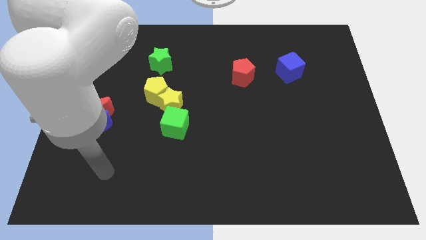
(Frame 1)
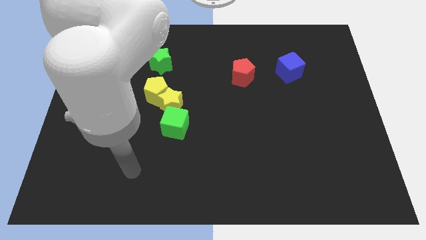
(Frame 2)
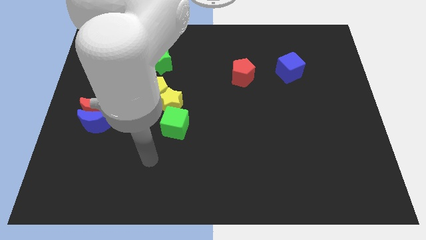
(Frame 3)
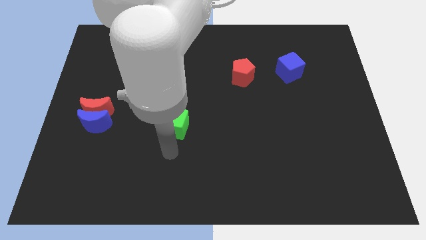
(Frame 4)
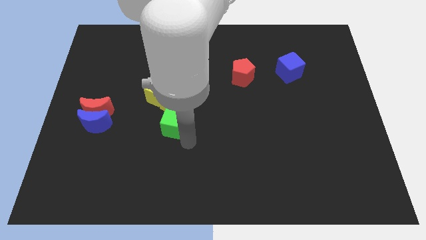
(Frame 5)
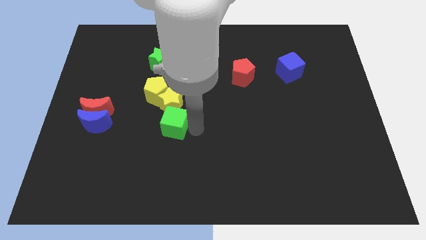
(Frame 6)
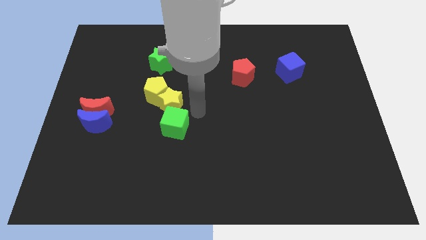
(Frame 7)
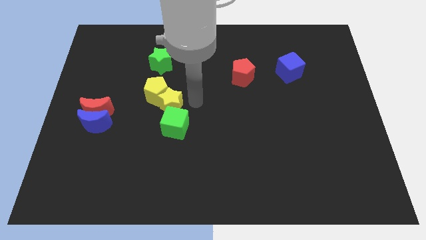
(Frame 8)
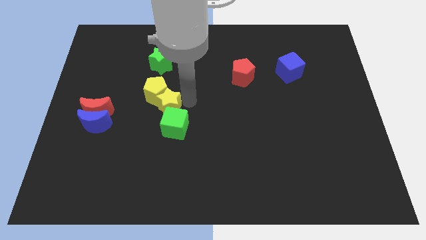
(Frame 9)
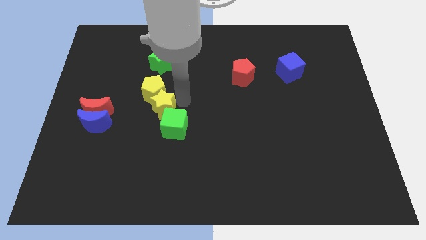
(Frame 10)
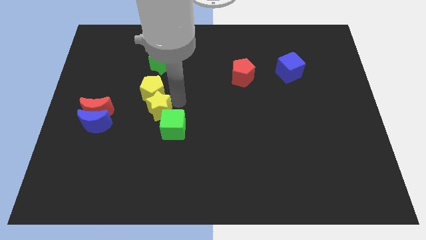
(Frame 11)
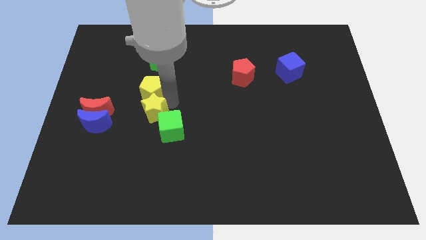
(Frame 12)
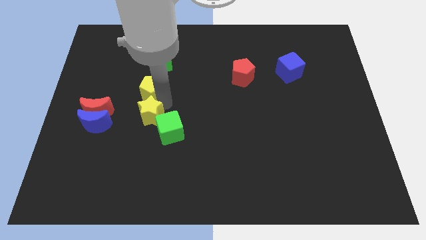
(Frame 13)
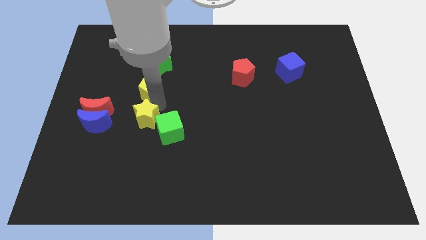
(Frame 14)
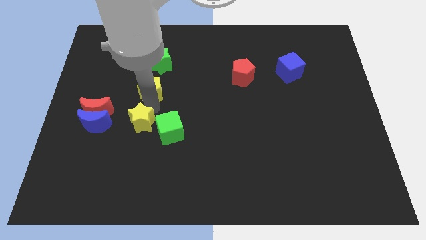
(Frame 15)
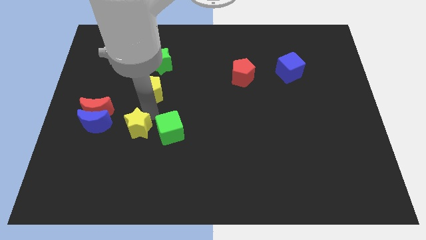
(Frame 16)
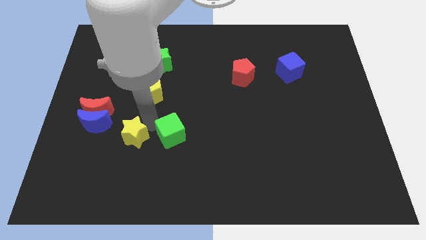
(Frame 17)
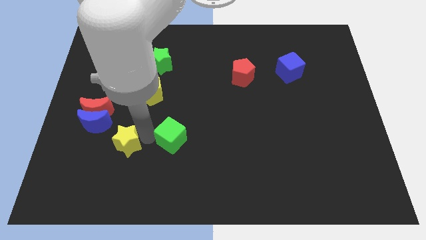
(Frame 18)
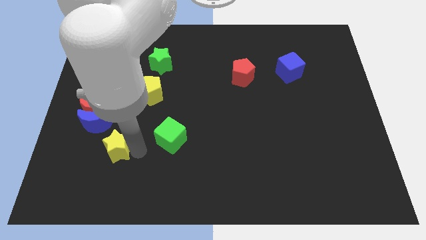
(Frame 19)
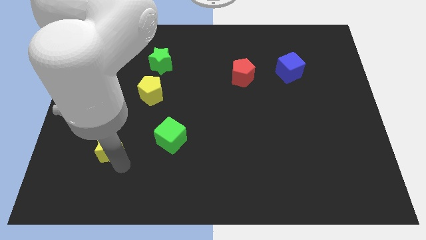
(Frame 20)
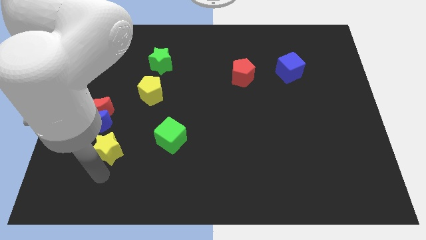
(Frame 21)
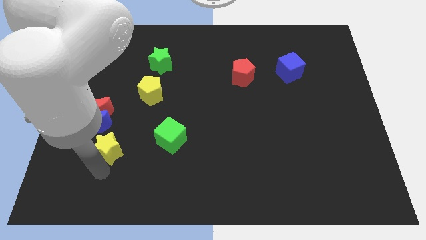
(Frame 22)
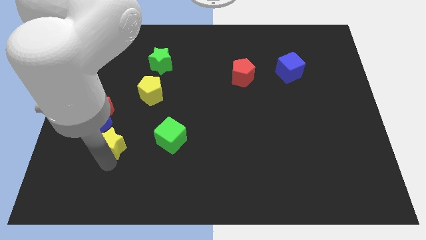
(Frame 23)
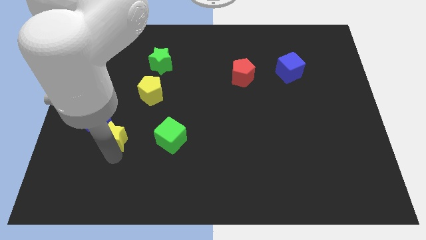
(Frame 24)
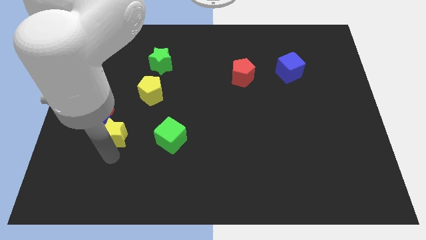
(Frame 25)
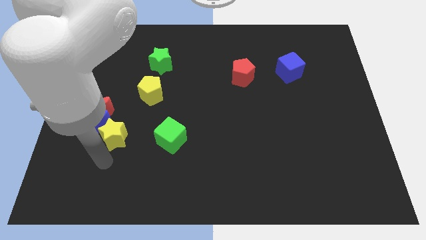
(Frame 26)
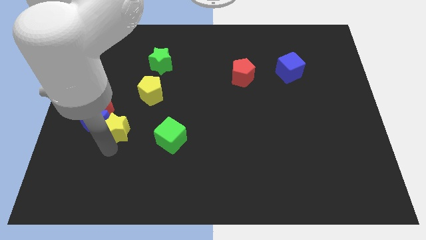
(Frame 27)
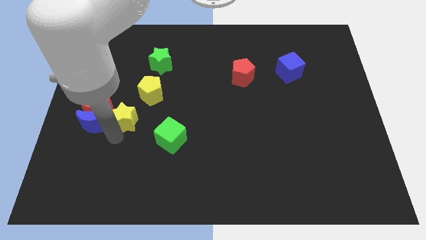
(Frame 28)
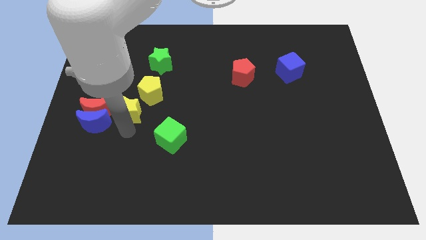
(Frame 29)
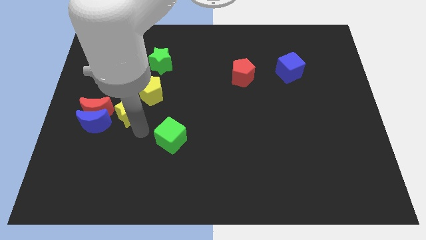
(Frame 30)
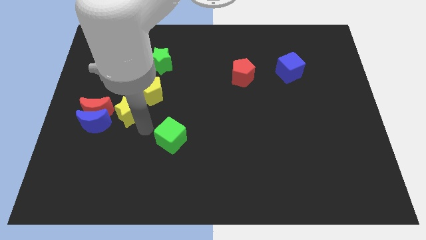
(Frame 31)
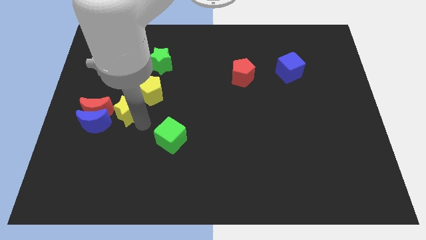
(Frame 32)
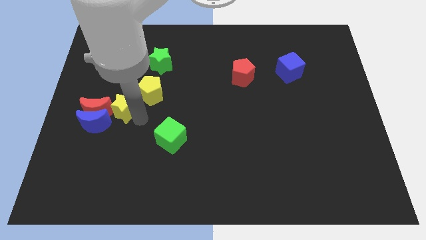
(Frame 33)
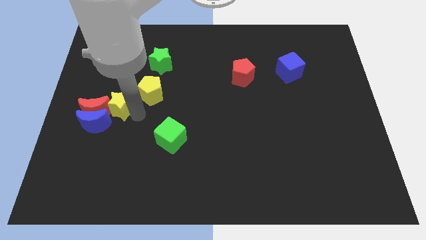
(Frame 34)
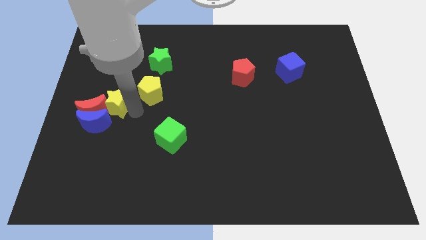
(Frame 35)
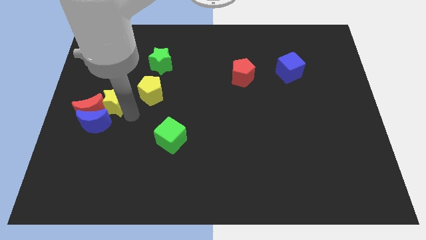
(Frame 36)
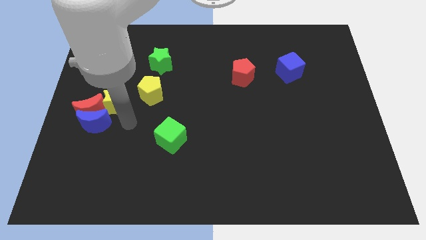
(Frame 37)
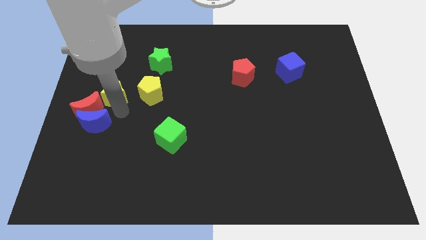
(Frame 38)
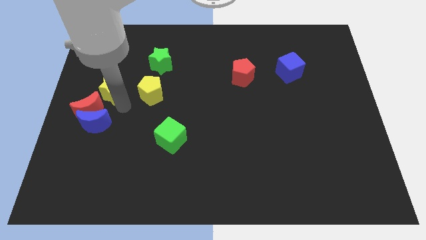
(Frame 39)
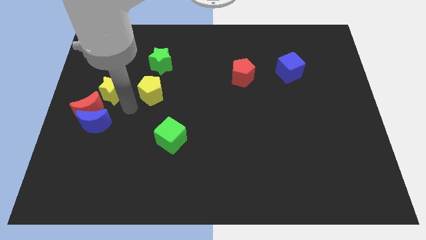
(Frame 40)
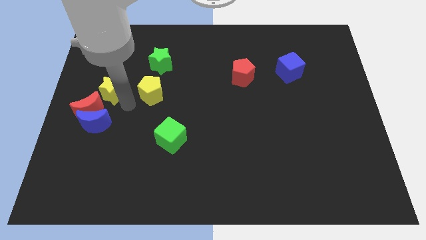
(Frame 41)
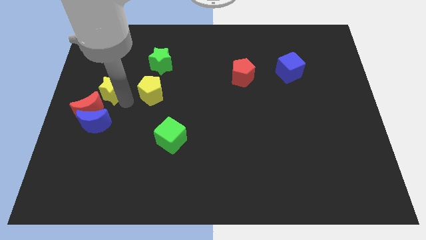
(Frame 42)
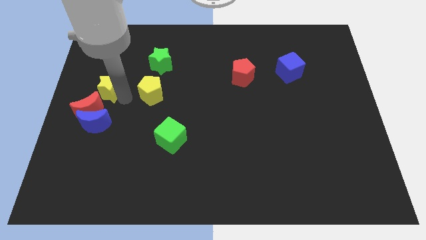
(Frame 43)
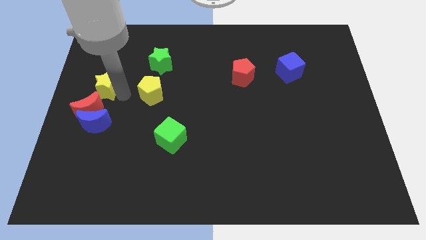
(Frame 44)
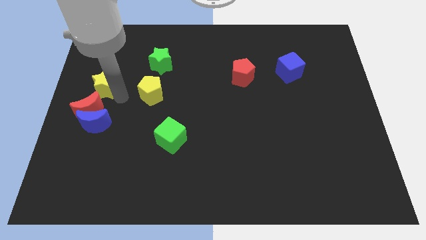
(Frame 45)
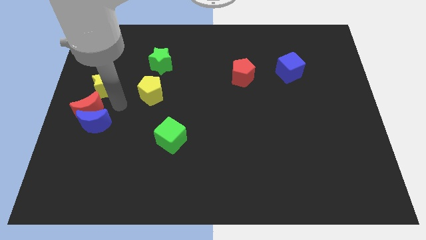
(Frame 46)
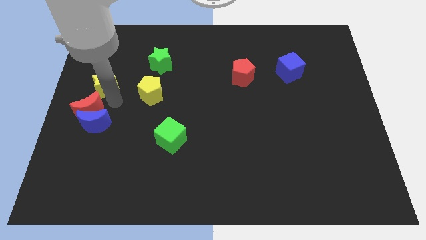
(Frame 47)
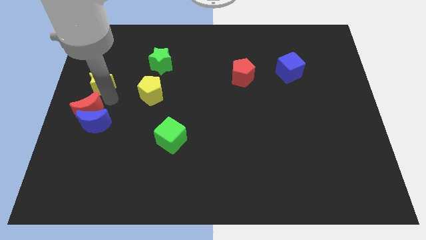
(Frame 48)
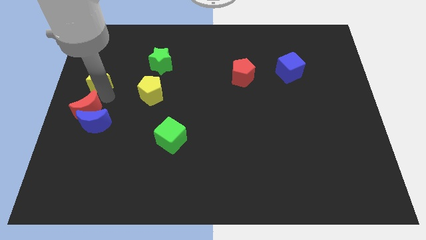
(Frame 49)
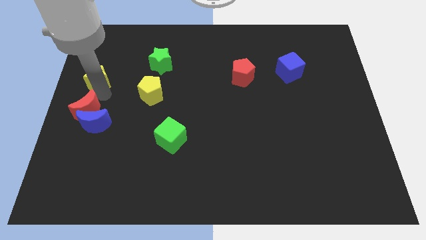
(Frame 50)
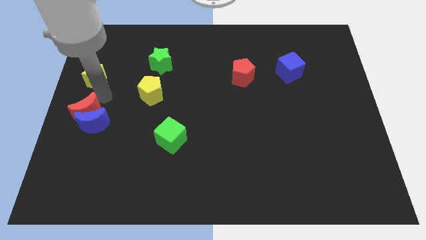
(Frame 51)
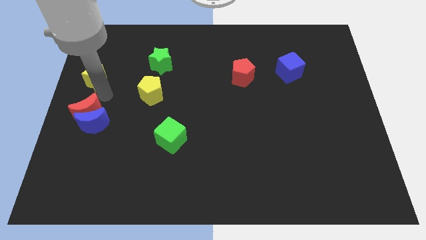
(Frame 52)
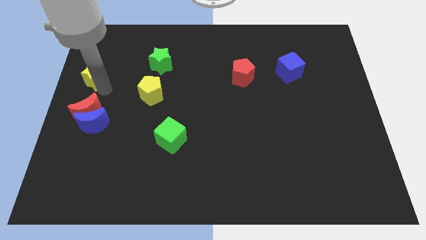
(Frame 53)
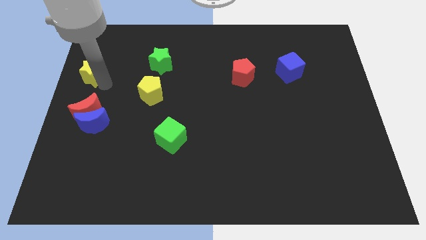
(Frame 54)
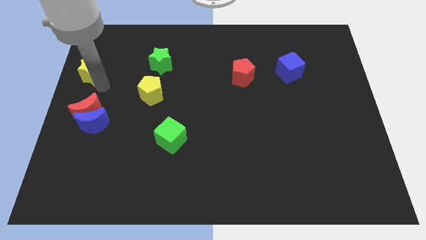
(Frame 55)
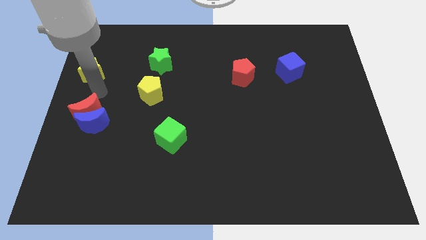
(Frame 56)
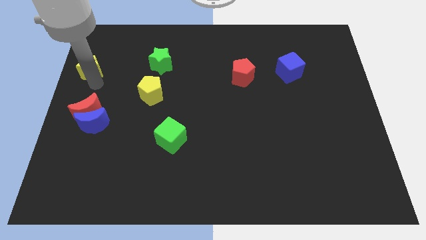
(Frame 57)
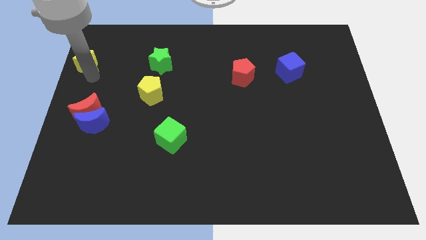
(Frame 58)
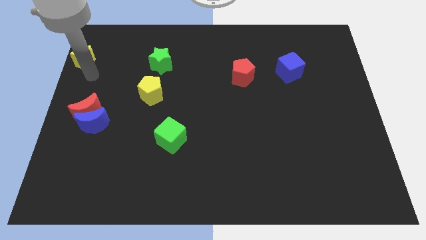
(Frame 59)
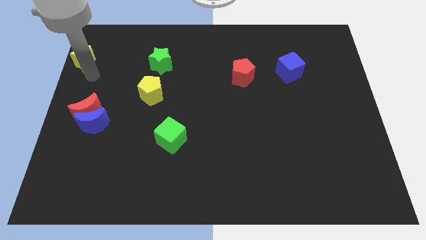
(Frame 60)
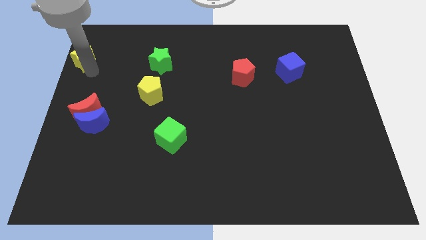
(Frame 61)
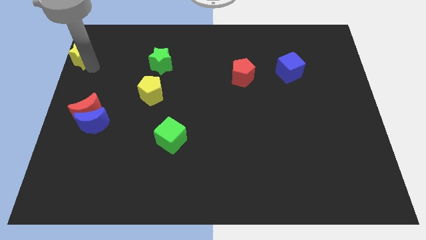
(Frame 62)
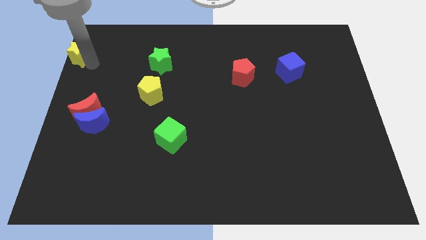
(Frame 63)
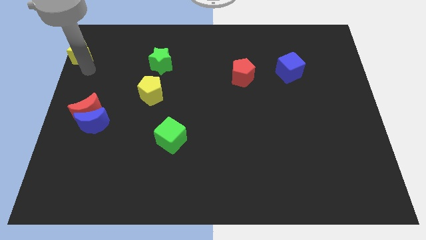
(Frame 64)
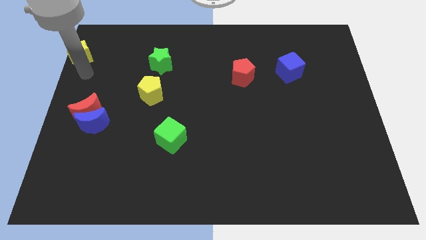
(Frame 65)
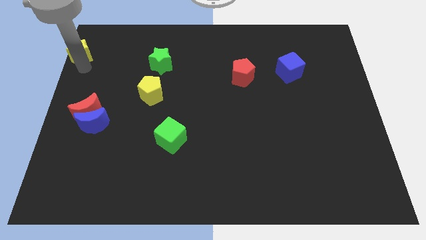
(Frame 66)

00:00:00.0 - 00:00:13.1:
put the yellow star to the top left corner
